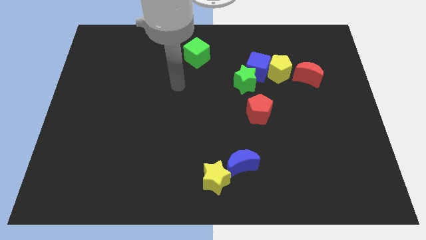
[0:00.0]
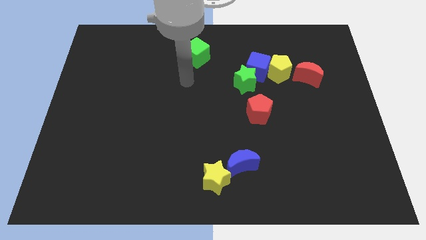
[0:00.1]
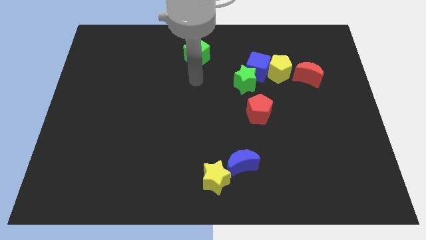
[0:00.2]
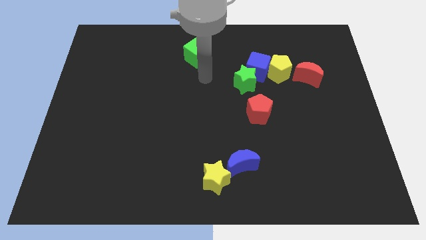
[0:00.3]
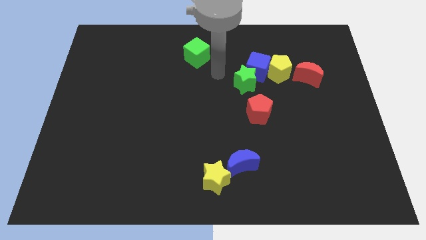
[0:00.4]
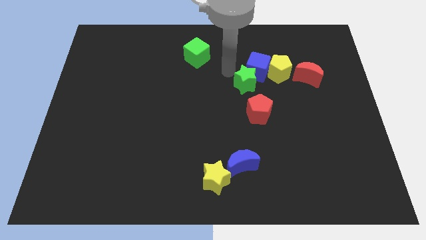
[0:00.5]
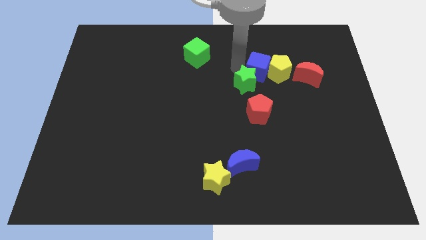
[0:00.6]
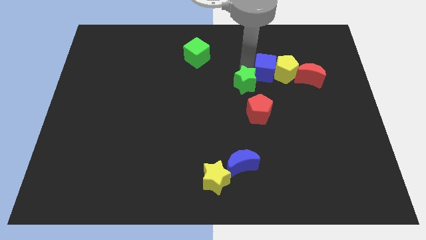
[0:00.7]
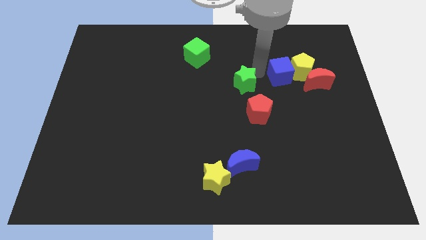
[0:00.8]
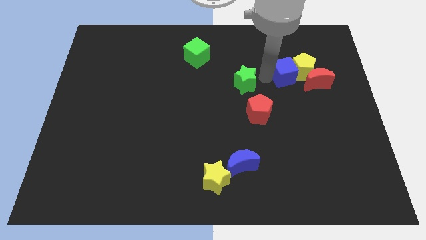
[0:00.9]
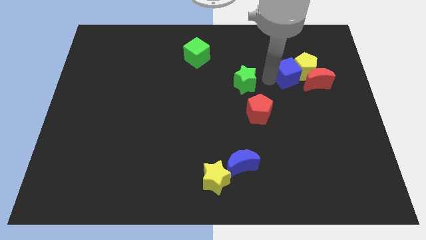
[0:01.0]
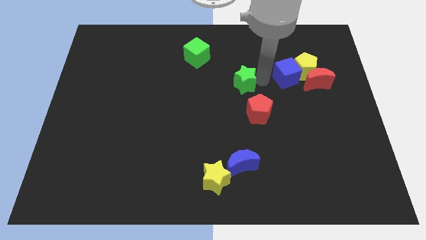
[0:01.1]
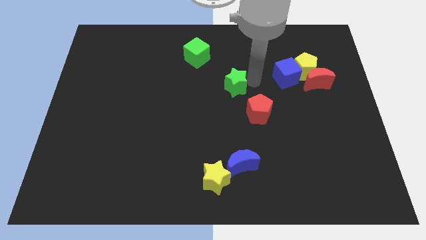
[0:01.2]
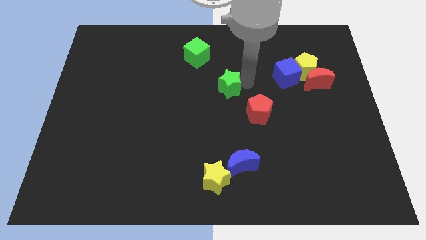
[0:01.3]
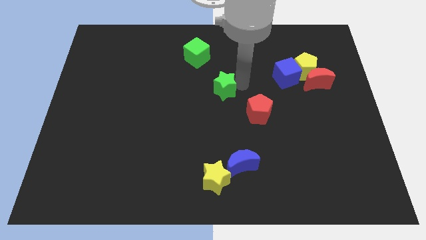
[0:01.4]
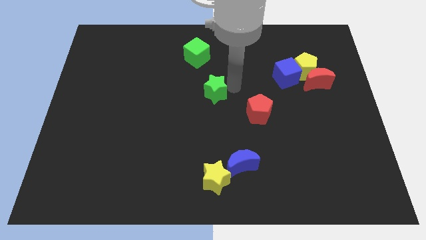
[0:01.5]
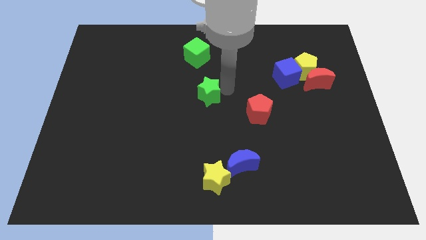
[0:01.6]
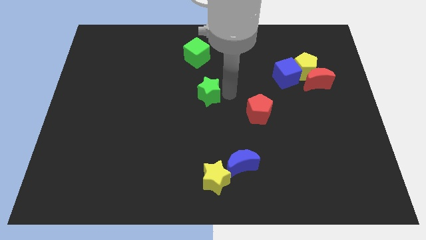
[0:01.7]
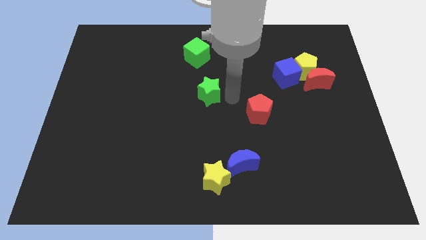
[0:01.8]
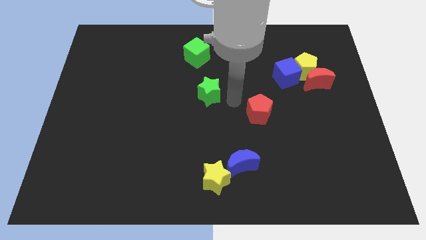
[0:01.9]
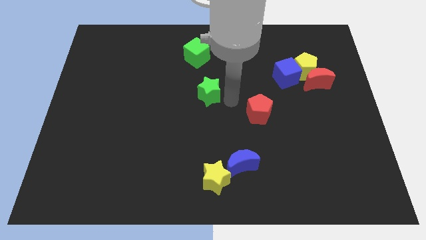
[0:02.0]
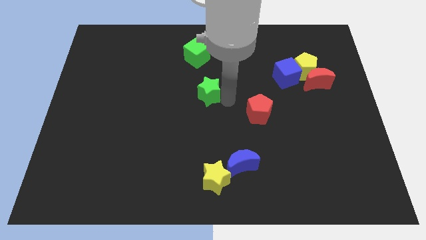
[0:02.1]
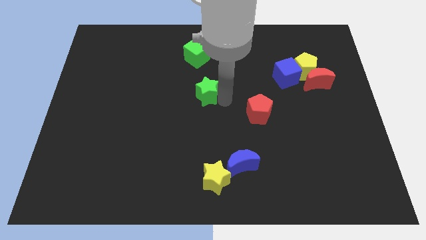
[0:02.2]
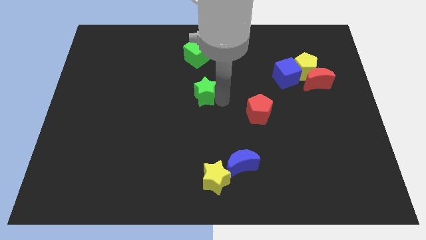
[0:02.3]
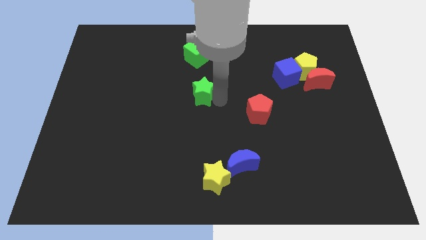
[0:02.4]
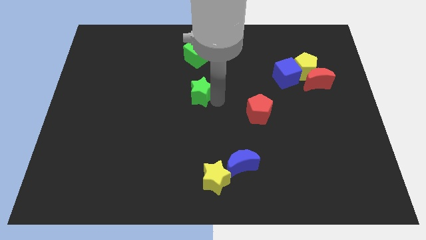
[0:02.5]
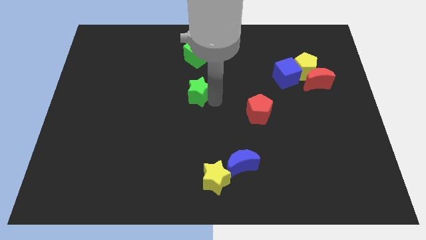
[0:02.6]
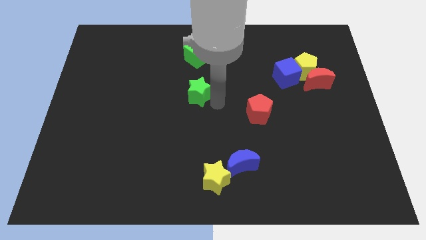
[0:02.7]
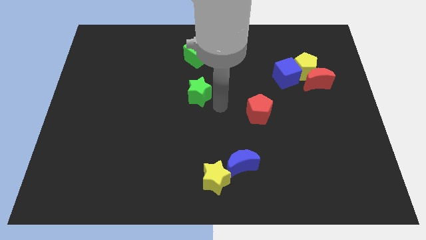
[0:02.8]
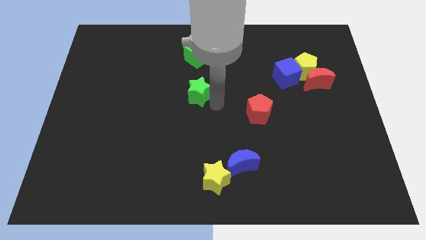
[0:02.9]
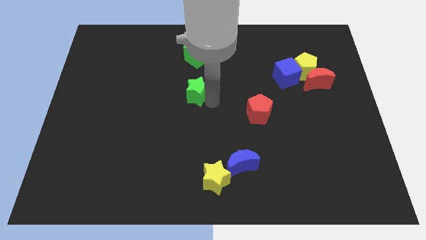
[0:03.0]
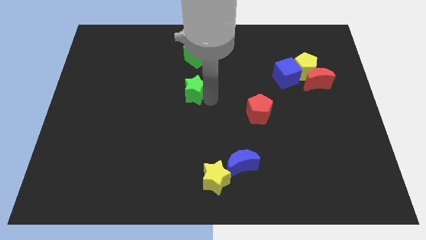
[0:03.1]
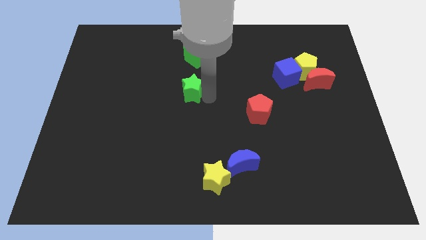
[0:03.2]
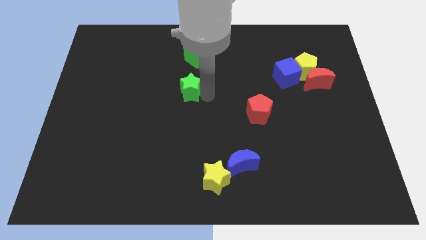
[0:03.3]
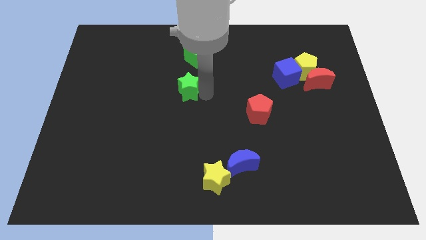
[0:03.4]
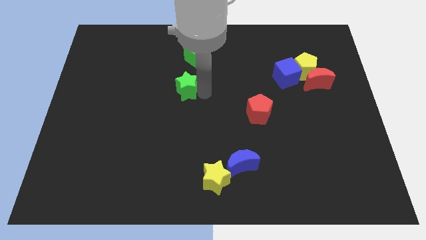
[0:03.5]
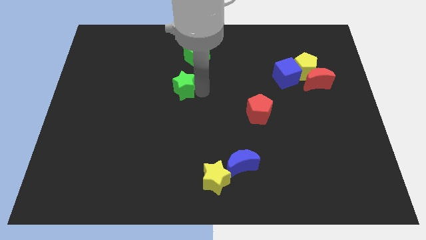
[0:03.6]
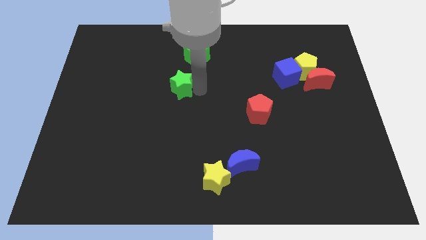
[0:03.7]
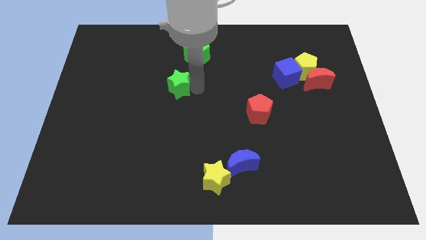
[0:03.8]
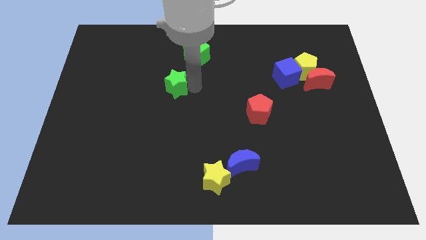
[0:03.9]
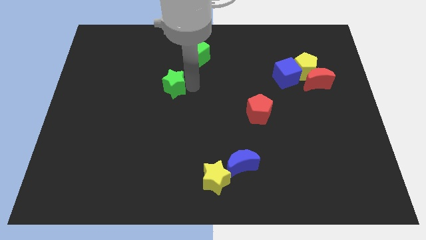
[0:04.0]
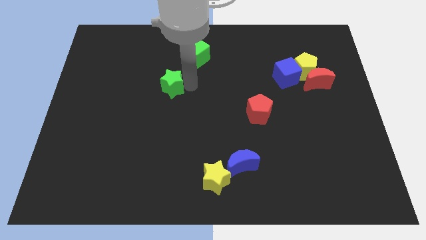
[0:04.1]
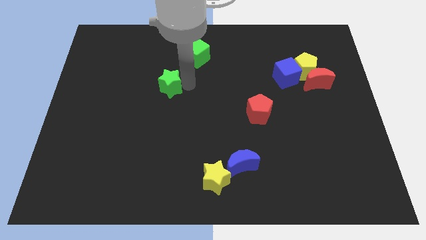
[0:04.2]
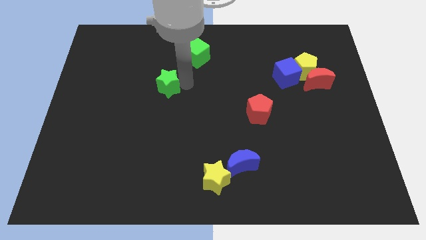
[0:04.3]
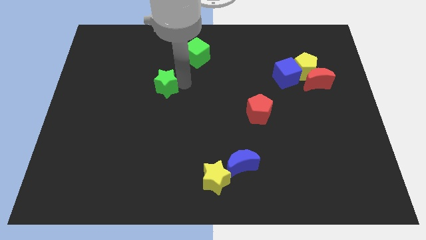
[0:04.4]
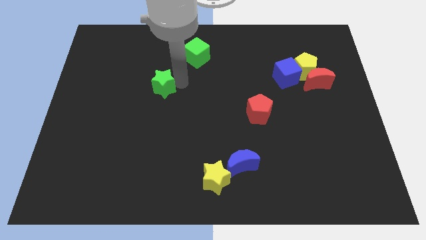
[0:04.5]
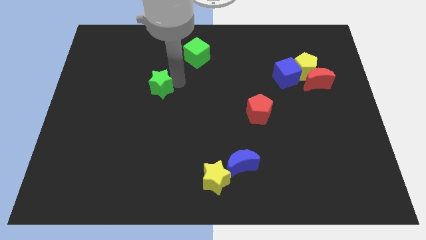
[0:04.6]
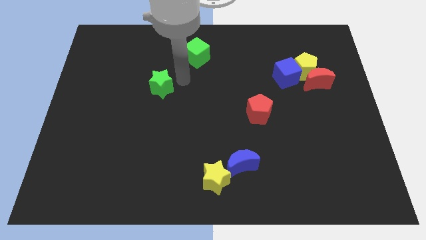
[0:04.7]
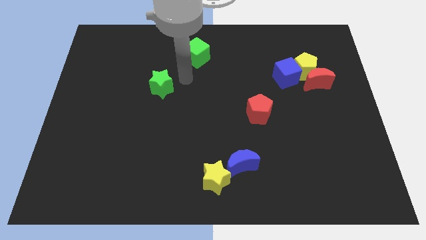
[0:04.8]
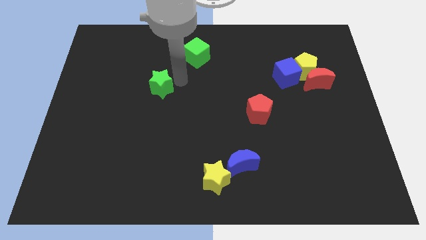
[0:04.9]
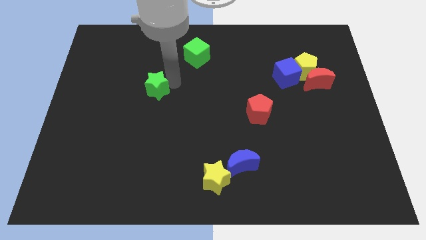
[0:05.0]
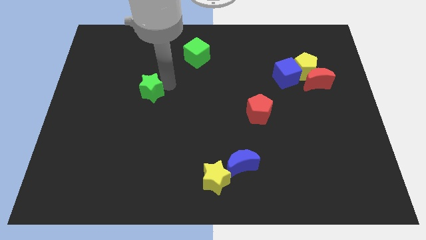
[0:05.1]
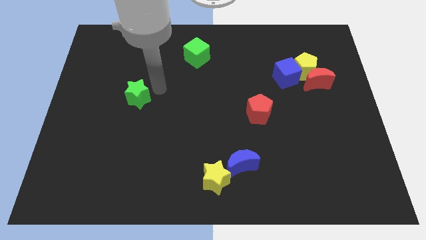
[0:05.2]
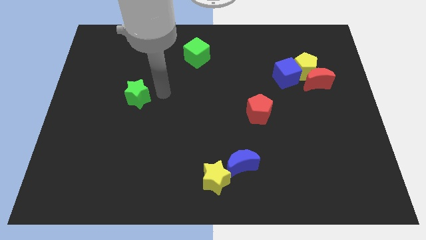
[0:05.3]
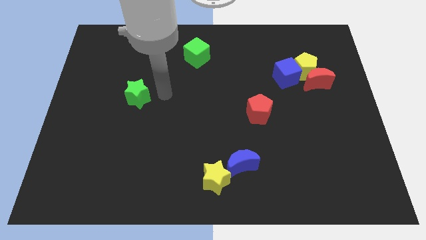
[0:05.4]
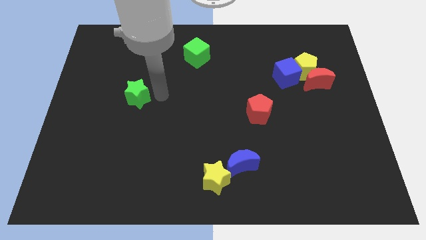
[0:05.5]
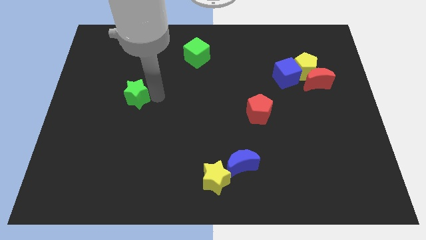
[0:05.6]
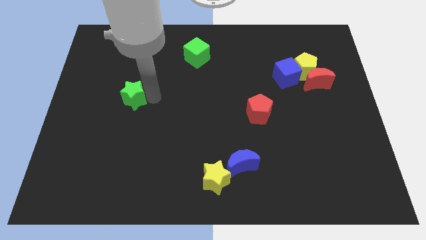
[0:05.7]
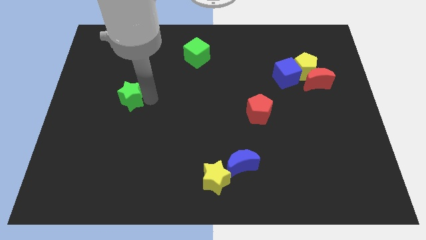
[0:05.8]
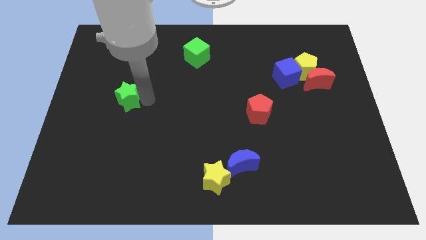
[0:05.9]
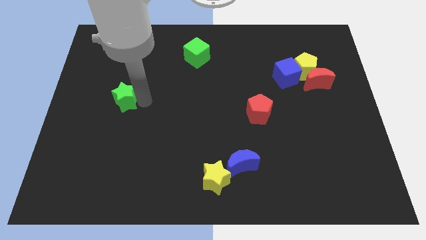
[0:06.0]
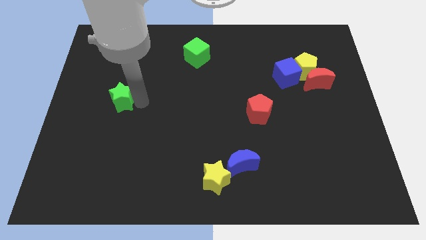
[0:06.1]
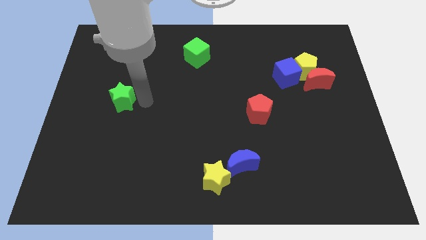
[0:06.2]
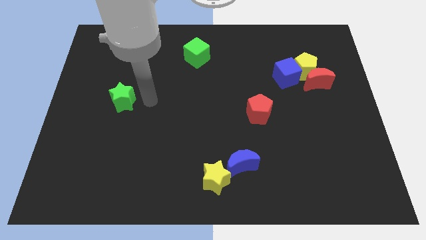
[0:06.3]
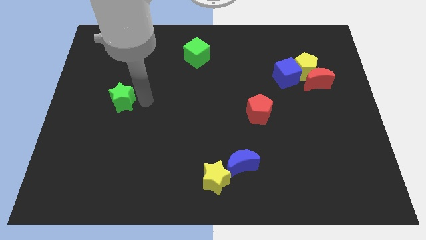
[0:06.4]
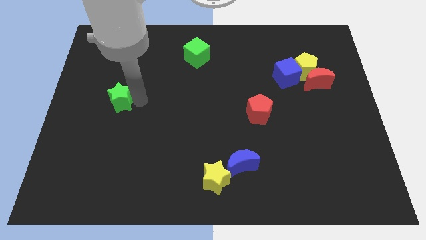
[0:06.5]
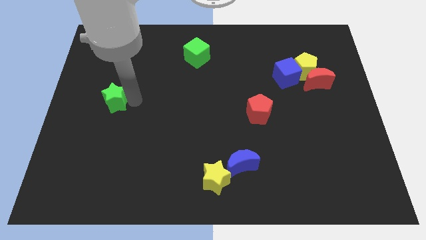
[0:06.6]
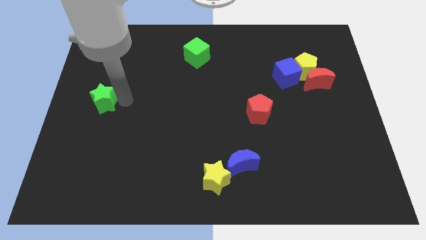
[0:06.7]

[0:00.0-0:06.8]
push the green star to the center left
